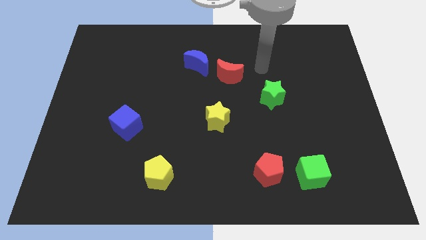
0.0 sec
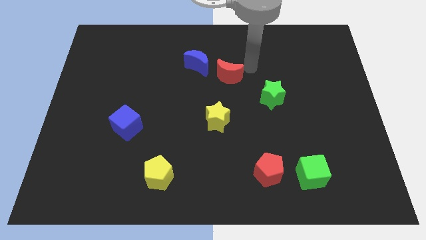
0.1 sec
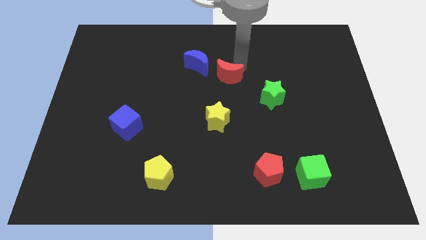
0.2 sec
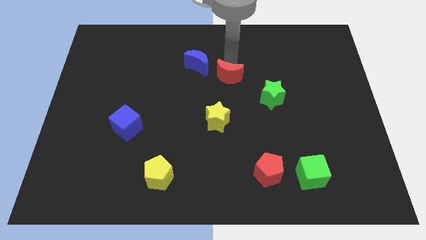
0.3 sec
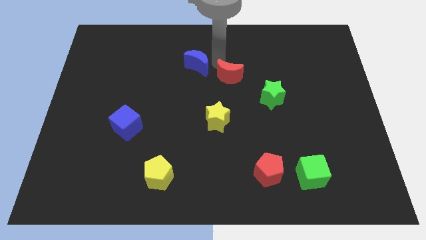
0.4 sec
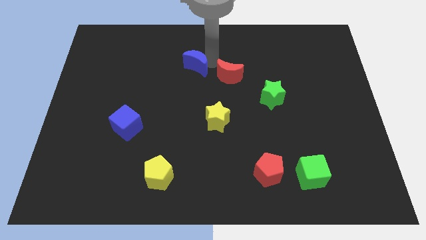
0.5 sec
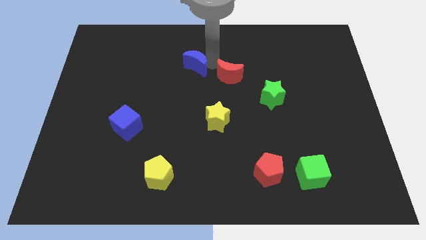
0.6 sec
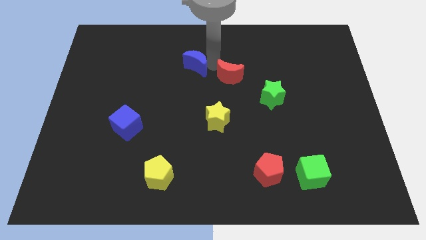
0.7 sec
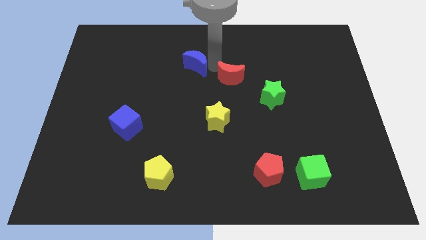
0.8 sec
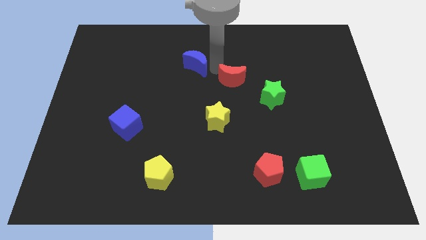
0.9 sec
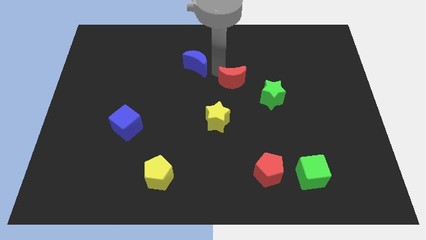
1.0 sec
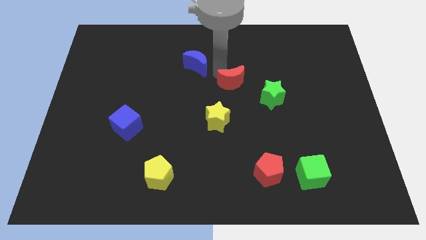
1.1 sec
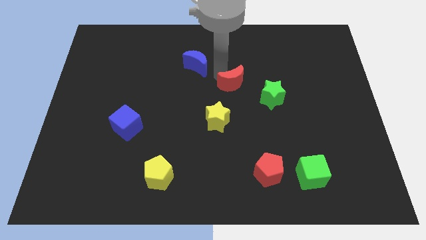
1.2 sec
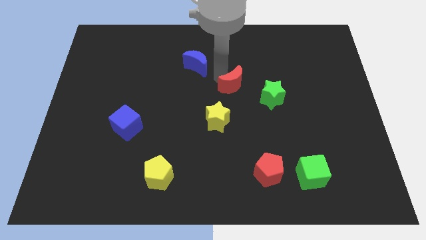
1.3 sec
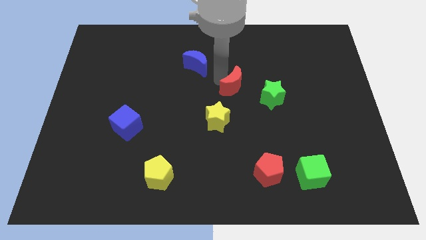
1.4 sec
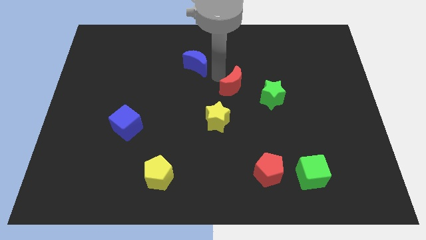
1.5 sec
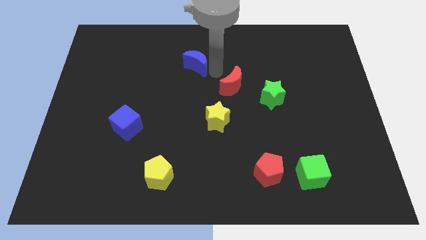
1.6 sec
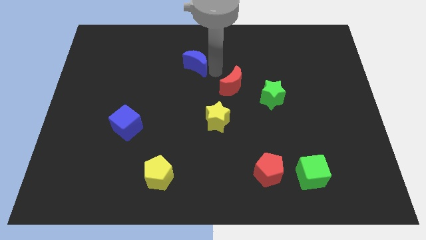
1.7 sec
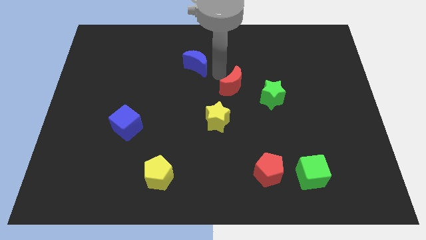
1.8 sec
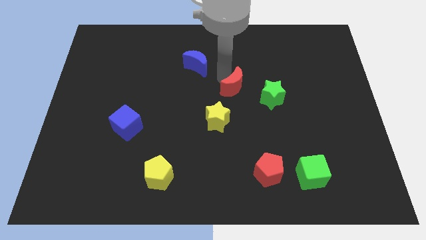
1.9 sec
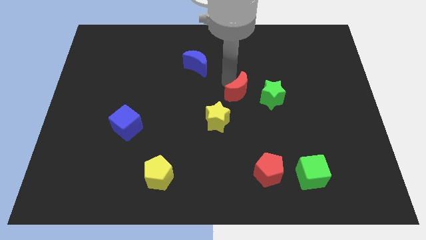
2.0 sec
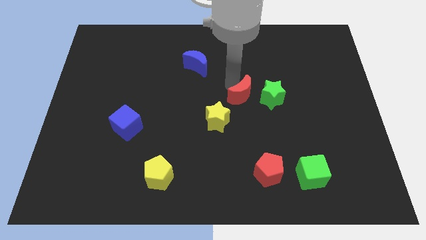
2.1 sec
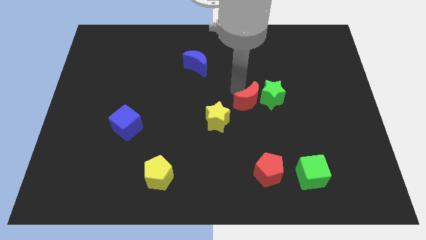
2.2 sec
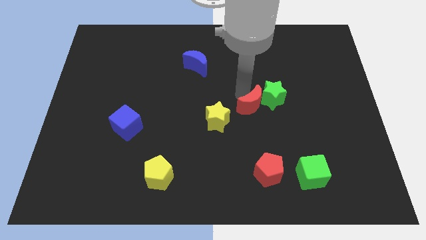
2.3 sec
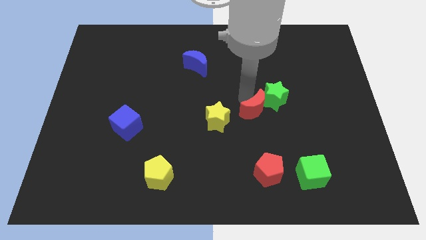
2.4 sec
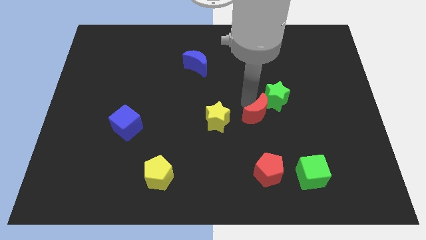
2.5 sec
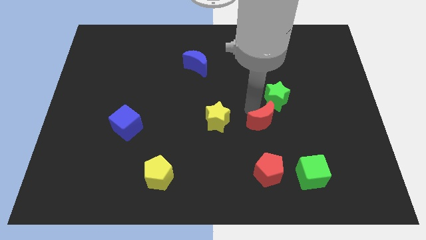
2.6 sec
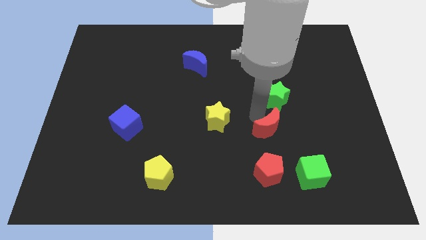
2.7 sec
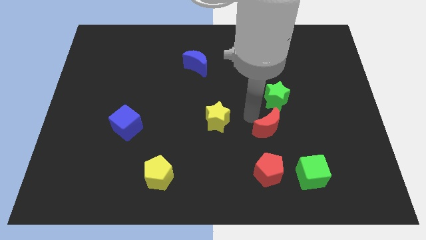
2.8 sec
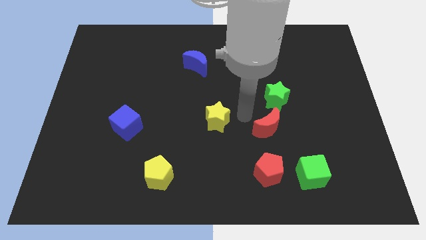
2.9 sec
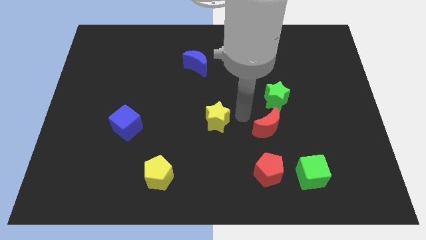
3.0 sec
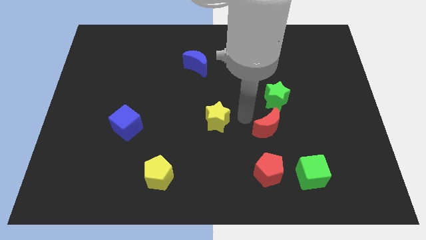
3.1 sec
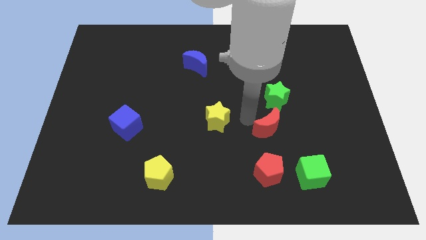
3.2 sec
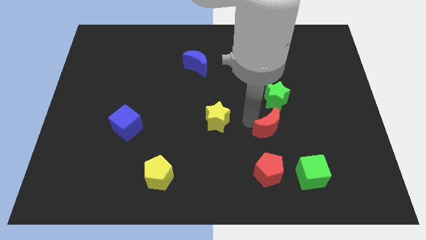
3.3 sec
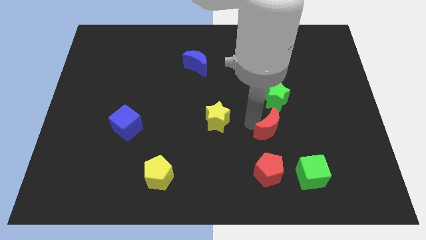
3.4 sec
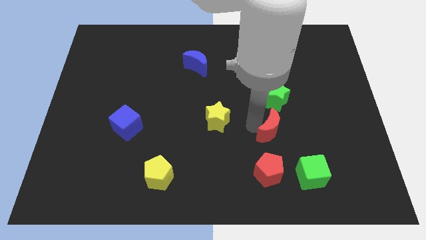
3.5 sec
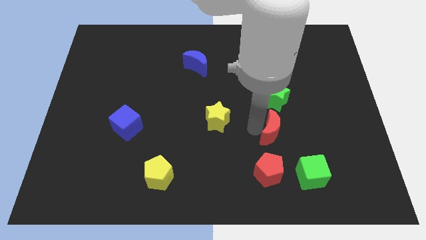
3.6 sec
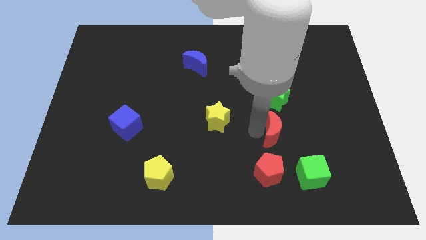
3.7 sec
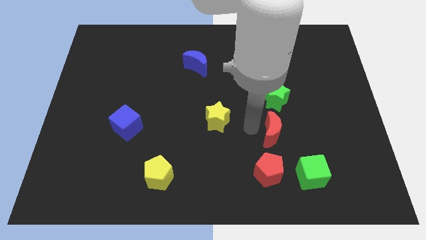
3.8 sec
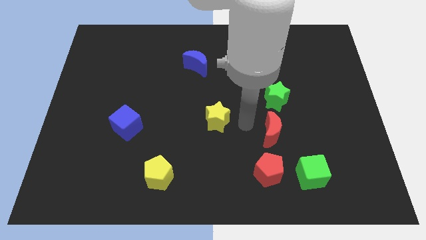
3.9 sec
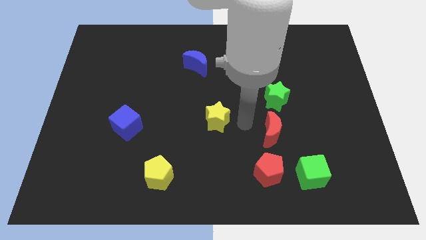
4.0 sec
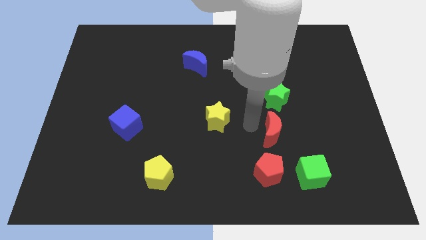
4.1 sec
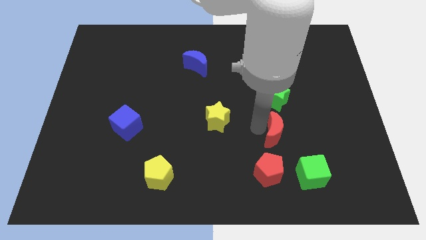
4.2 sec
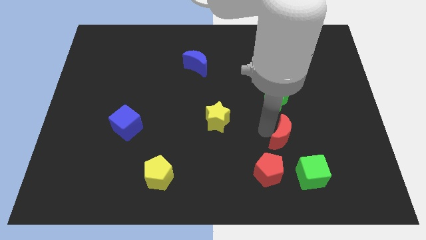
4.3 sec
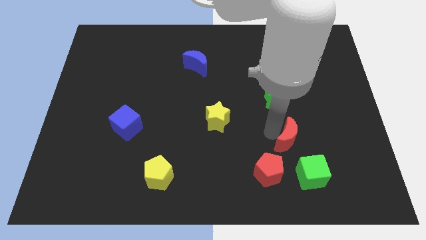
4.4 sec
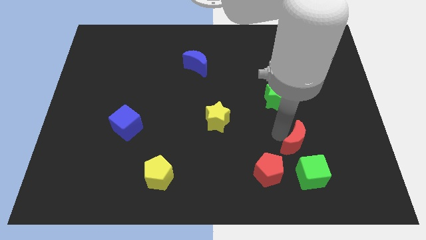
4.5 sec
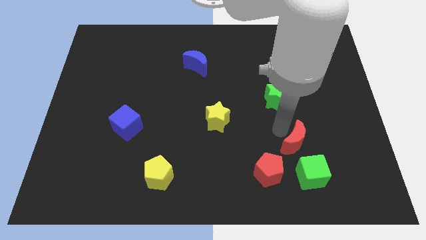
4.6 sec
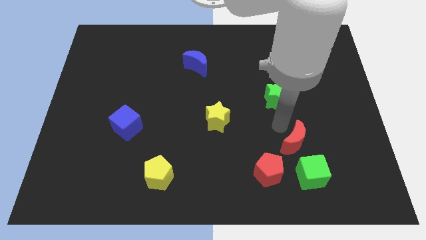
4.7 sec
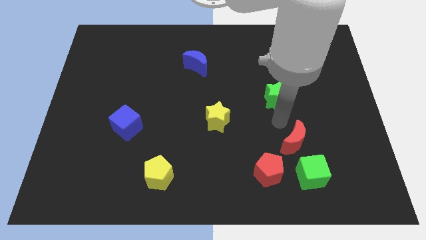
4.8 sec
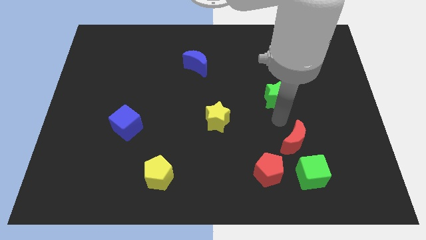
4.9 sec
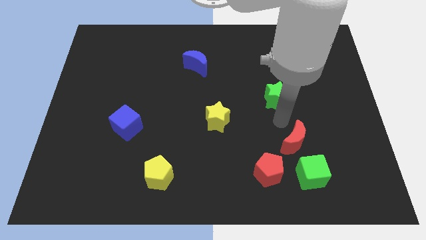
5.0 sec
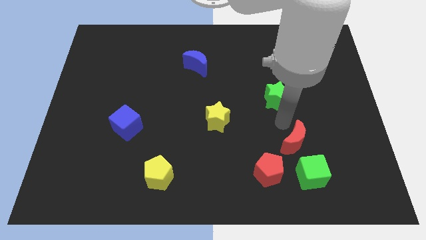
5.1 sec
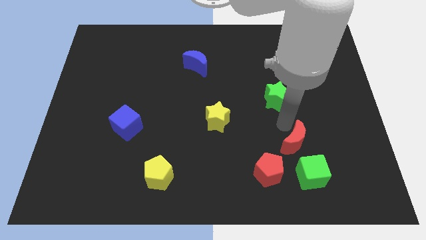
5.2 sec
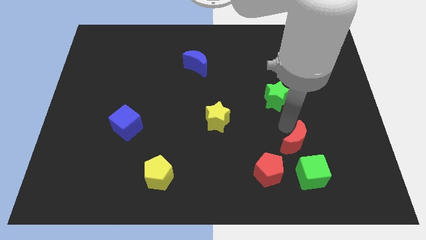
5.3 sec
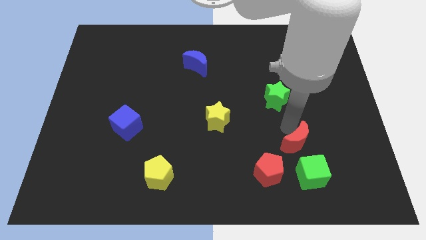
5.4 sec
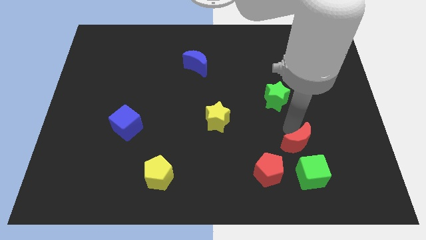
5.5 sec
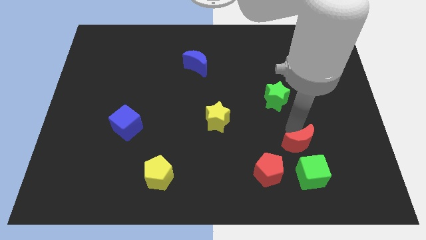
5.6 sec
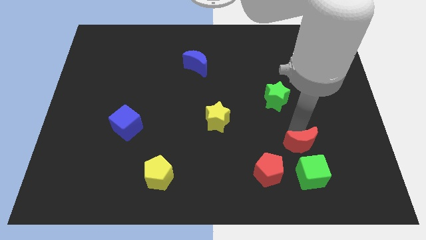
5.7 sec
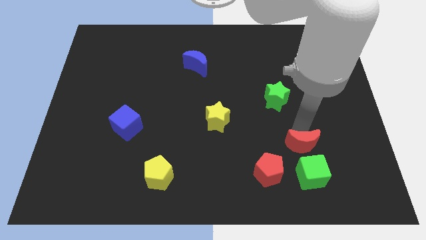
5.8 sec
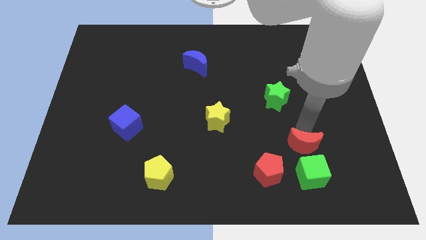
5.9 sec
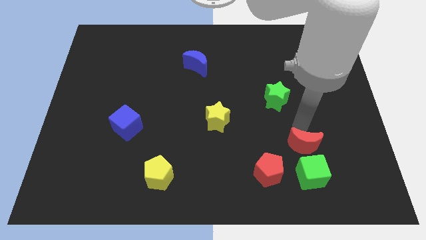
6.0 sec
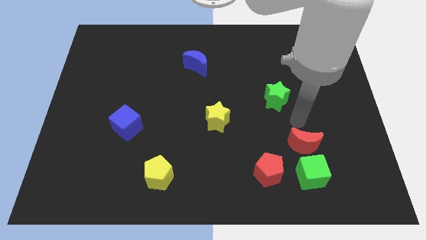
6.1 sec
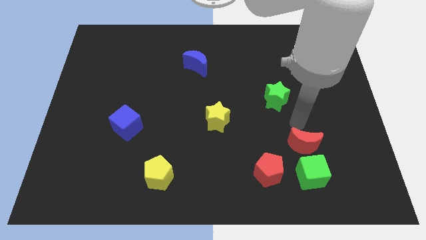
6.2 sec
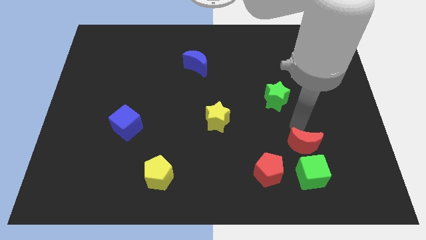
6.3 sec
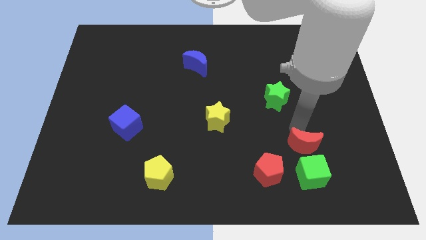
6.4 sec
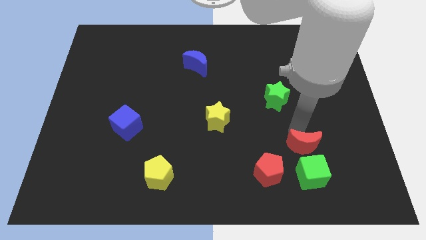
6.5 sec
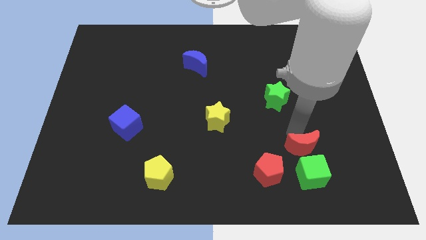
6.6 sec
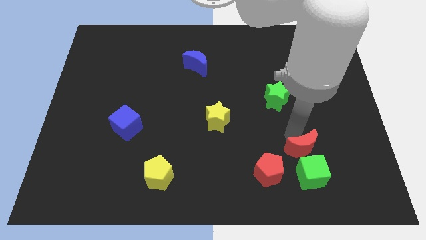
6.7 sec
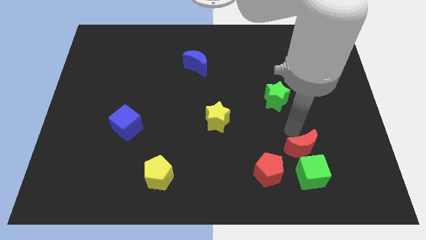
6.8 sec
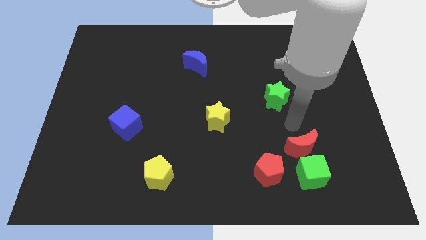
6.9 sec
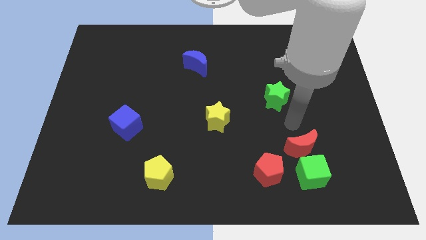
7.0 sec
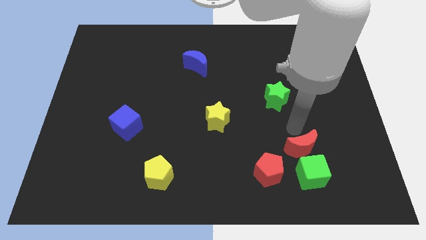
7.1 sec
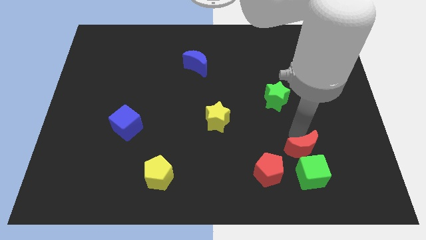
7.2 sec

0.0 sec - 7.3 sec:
move the red moon to the green cube
